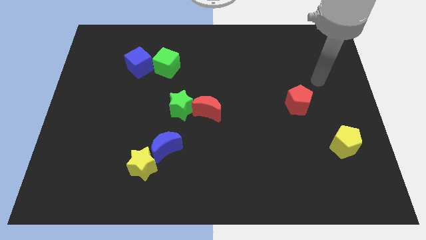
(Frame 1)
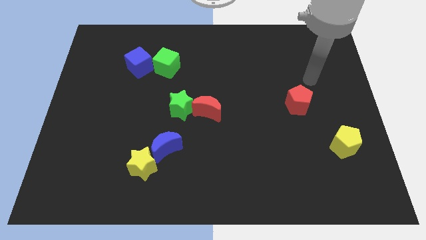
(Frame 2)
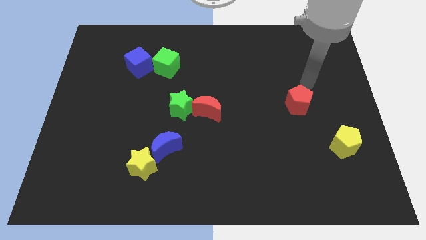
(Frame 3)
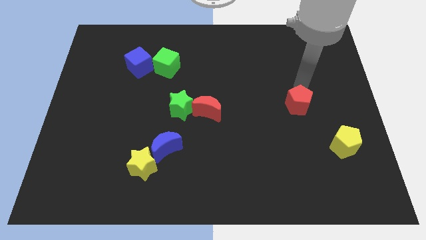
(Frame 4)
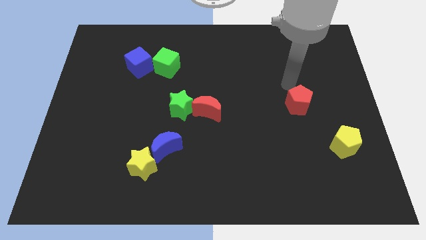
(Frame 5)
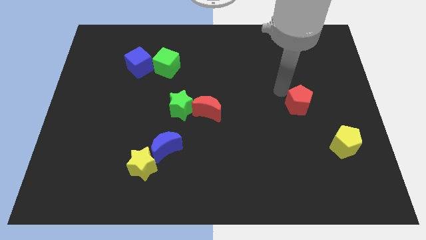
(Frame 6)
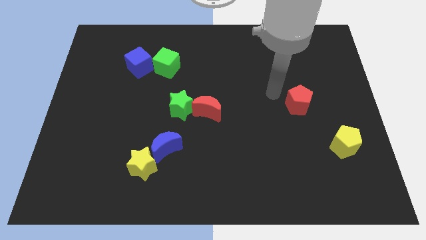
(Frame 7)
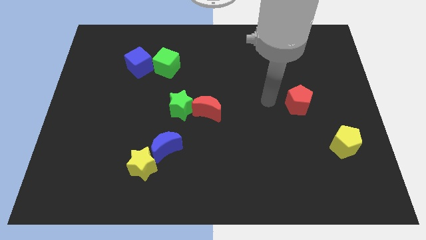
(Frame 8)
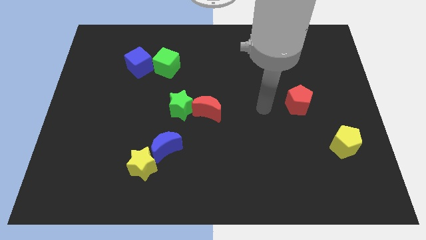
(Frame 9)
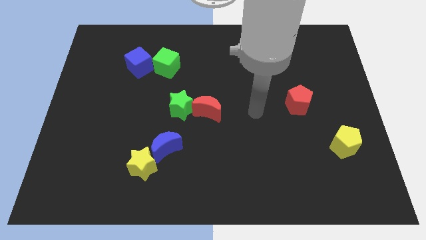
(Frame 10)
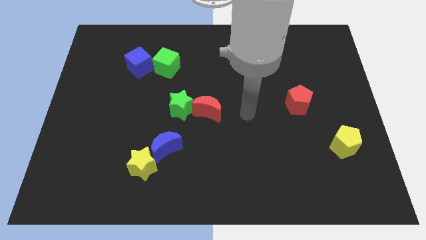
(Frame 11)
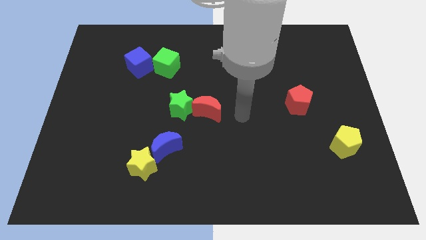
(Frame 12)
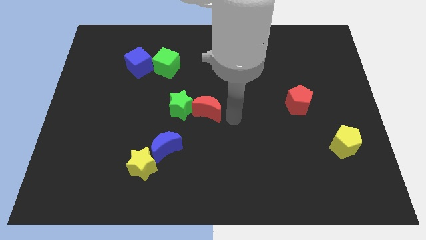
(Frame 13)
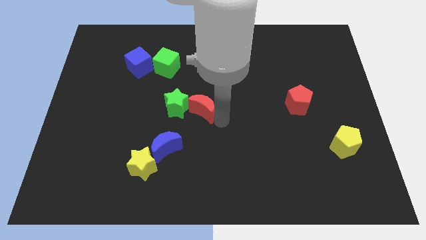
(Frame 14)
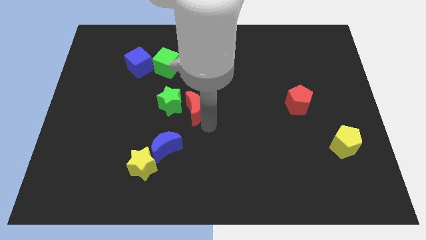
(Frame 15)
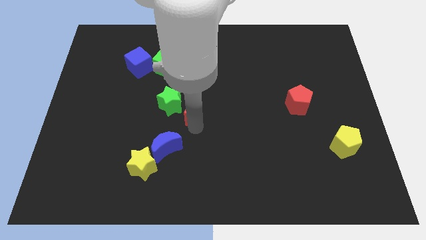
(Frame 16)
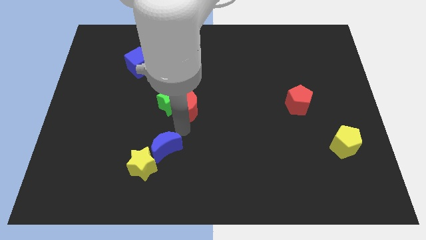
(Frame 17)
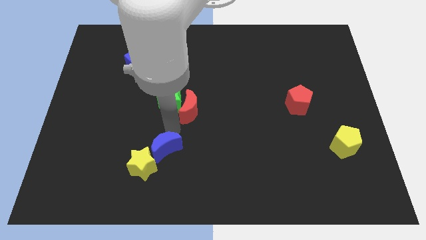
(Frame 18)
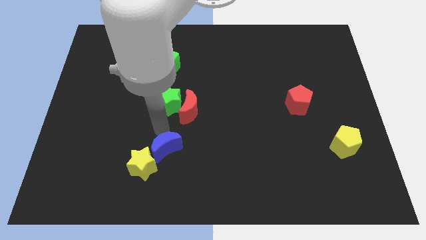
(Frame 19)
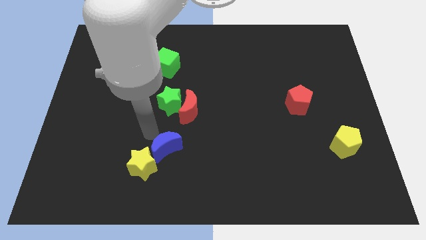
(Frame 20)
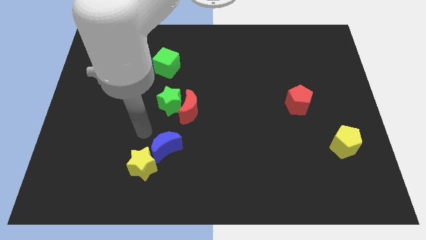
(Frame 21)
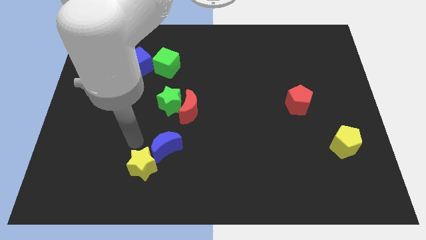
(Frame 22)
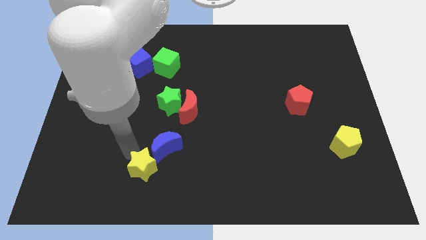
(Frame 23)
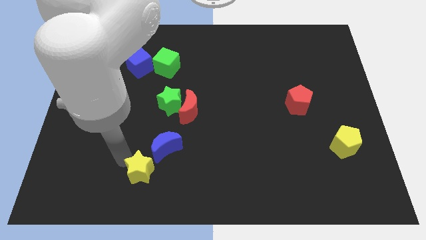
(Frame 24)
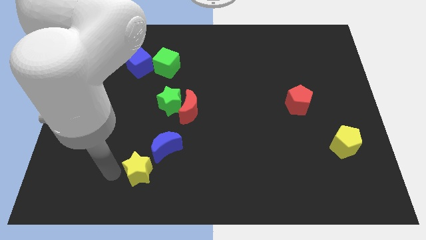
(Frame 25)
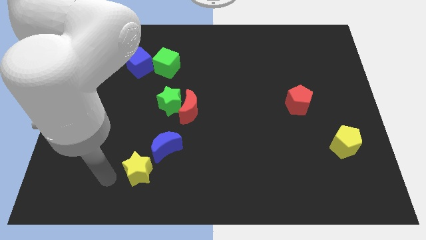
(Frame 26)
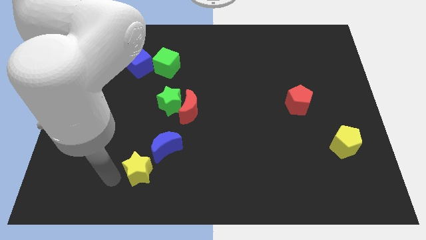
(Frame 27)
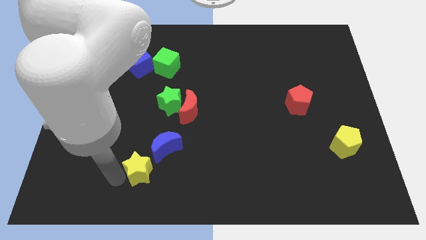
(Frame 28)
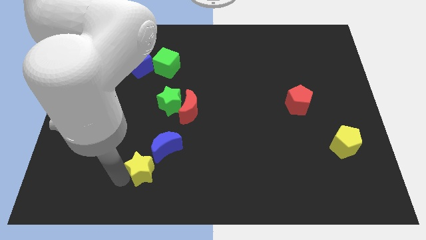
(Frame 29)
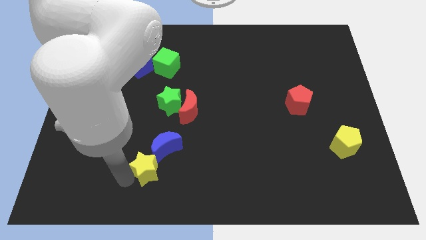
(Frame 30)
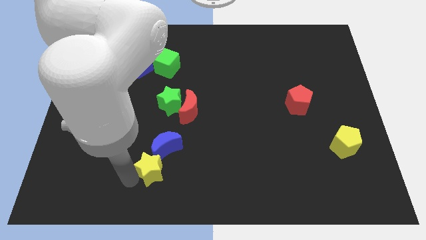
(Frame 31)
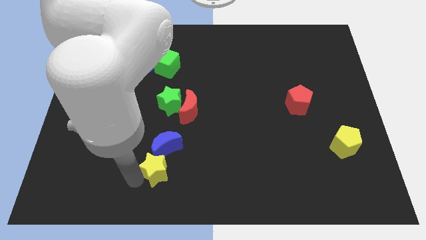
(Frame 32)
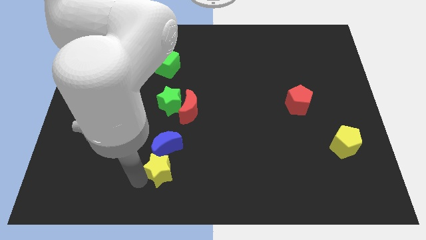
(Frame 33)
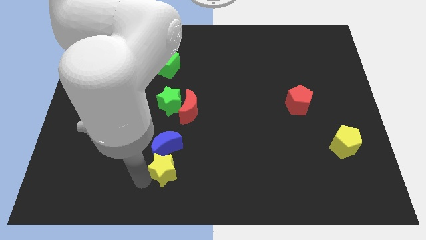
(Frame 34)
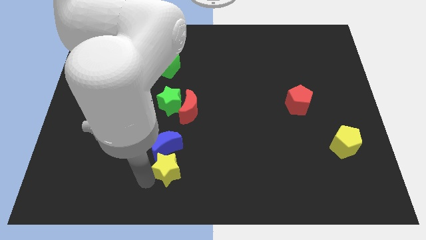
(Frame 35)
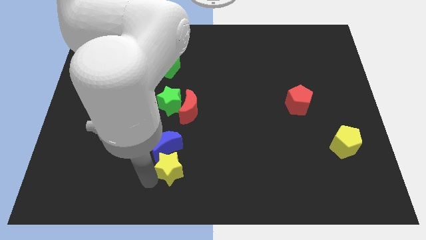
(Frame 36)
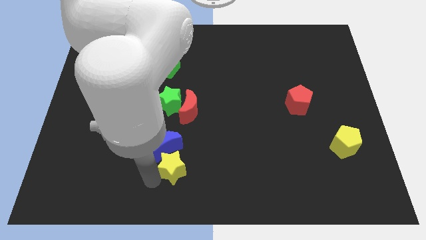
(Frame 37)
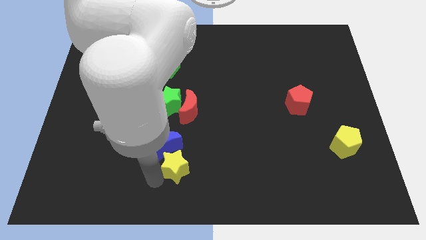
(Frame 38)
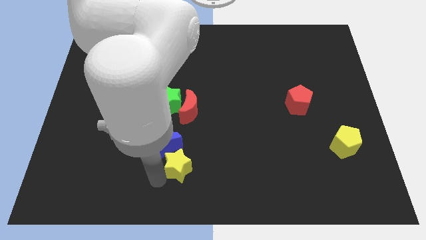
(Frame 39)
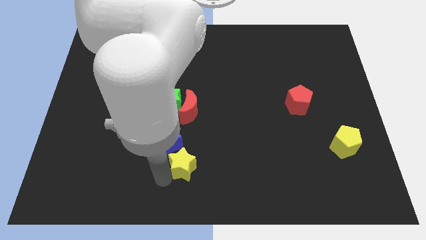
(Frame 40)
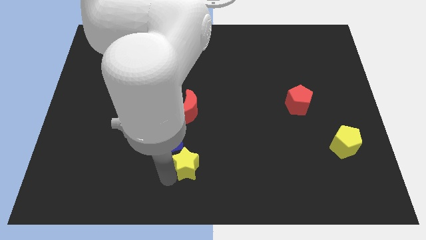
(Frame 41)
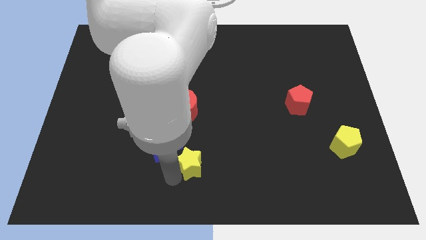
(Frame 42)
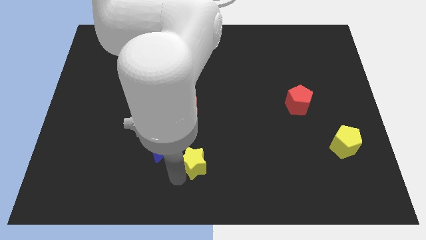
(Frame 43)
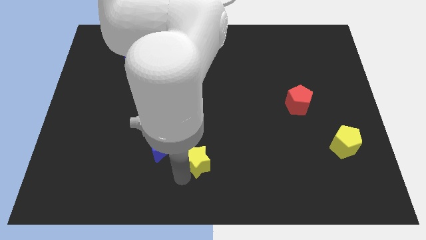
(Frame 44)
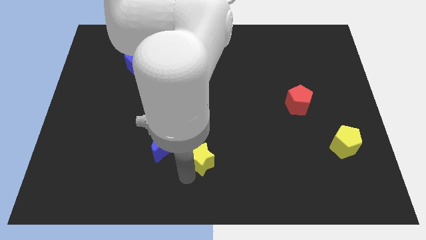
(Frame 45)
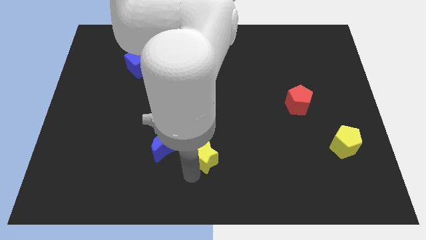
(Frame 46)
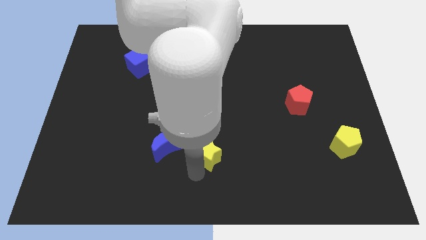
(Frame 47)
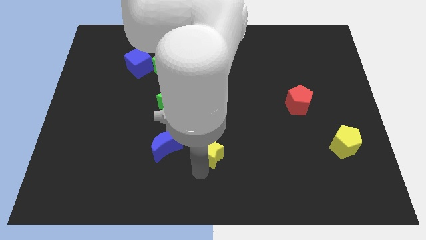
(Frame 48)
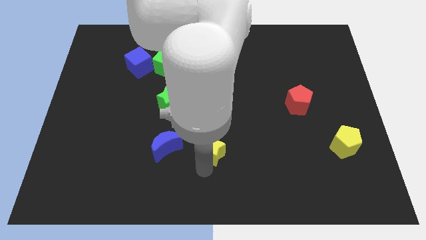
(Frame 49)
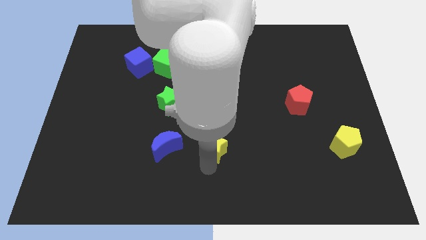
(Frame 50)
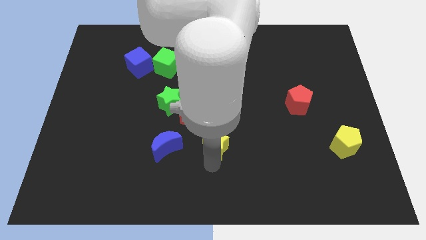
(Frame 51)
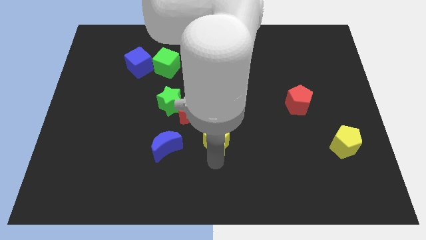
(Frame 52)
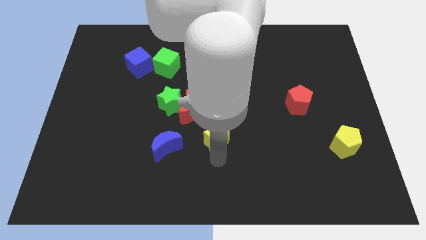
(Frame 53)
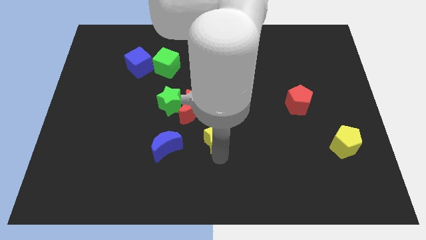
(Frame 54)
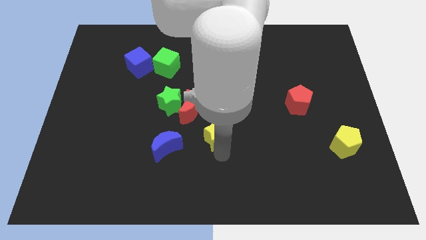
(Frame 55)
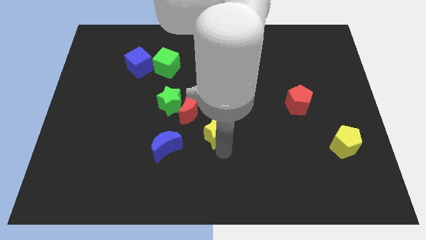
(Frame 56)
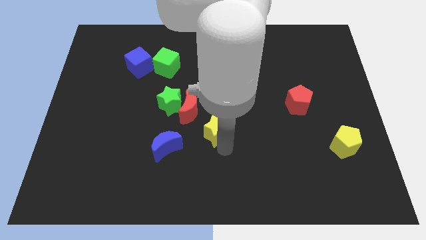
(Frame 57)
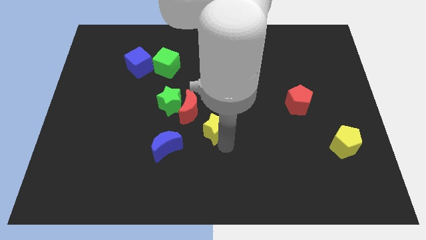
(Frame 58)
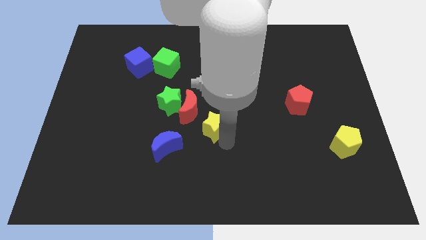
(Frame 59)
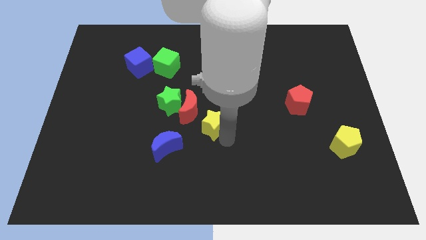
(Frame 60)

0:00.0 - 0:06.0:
move the yellow star to the top right side of the blue moon

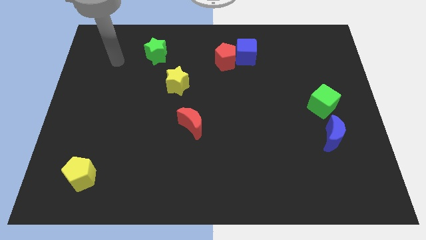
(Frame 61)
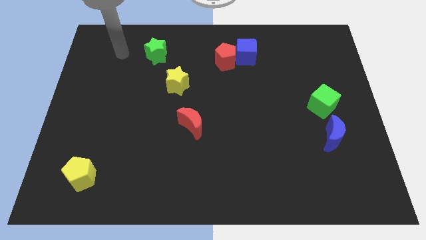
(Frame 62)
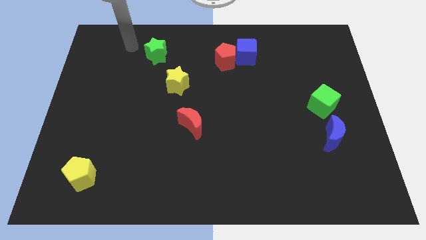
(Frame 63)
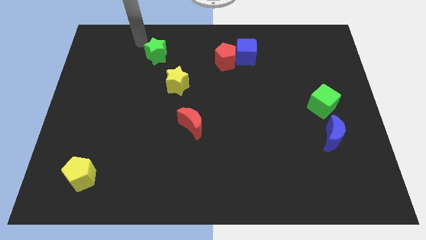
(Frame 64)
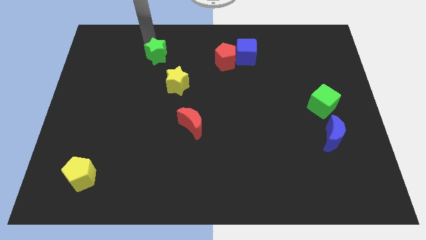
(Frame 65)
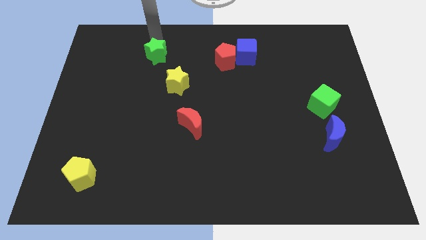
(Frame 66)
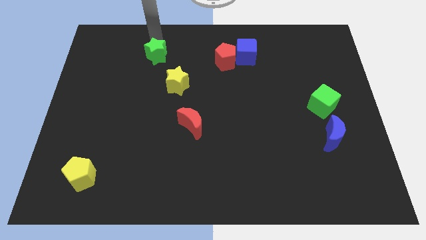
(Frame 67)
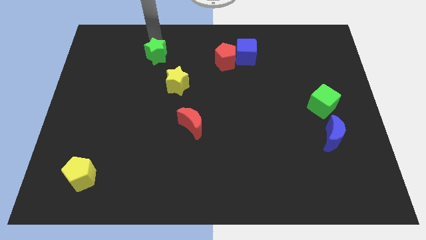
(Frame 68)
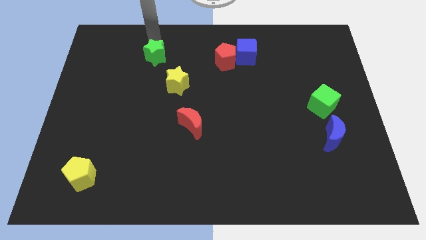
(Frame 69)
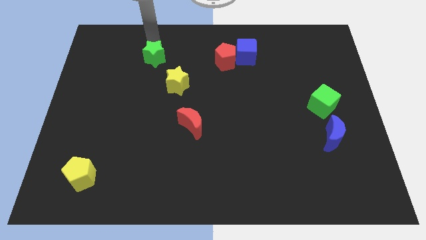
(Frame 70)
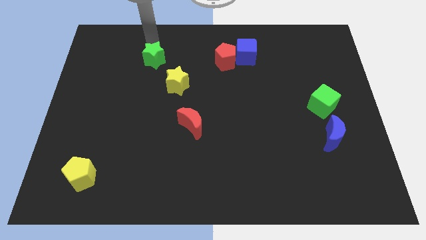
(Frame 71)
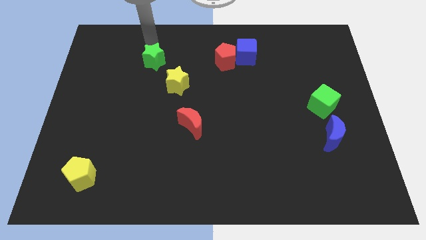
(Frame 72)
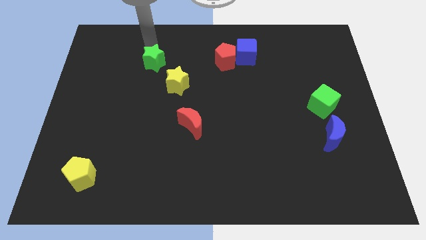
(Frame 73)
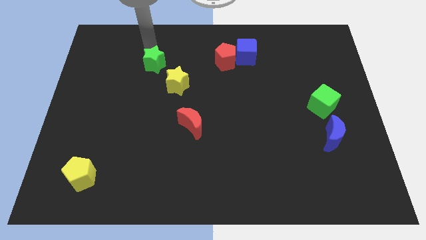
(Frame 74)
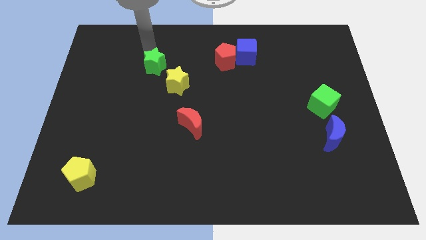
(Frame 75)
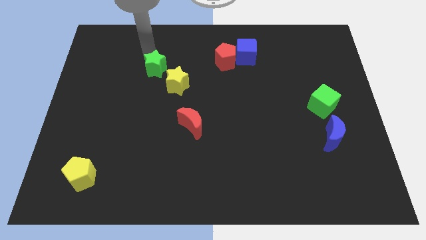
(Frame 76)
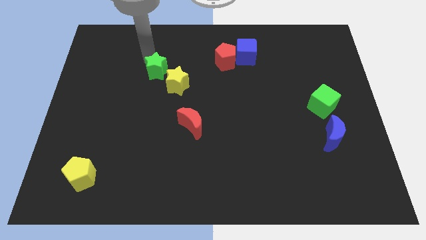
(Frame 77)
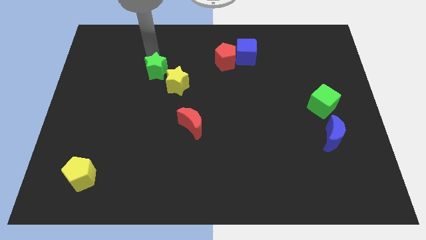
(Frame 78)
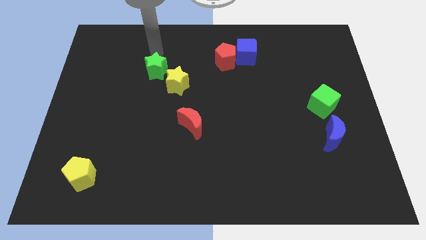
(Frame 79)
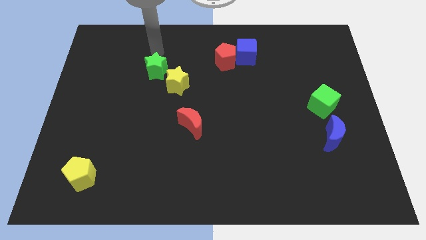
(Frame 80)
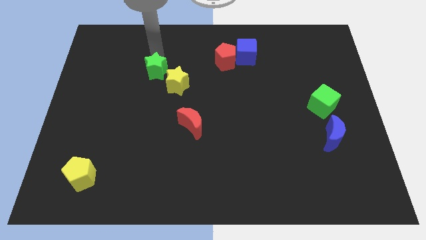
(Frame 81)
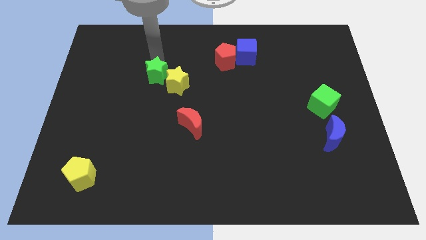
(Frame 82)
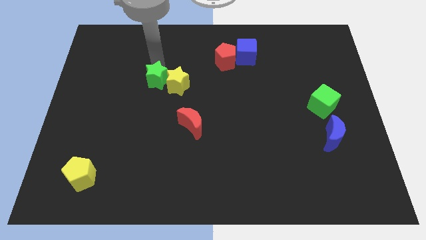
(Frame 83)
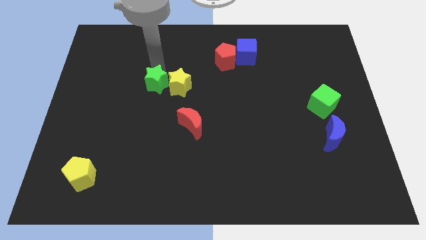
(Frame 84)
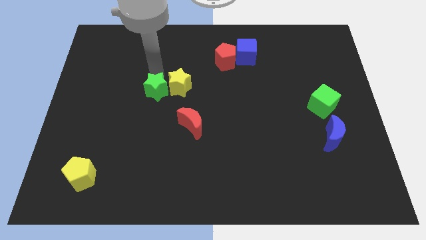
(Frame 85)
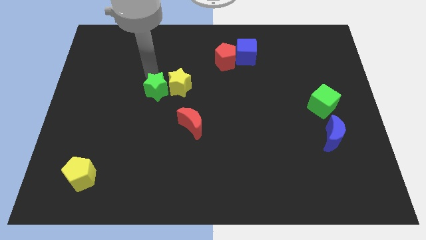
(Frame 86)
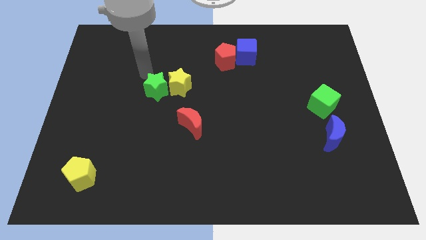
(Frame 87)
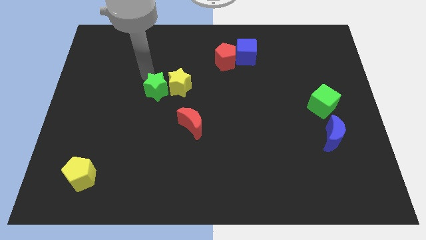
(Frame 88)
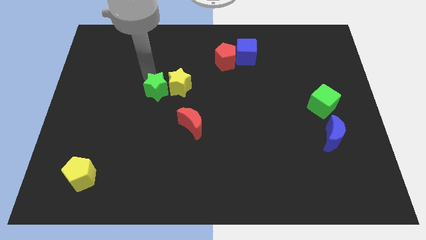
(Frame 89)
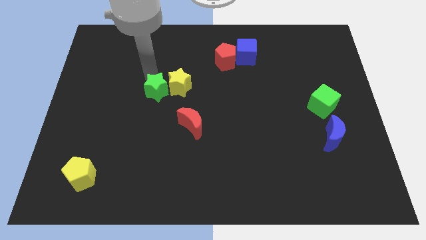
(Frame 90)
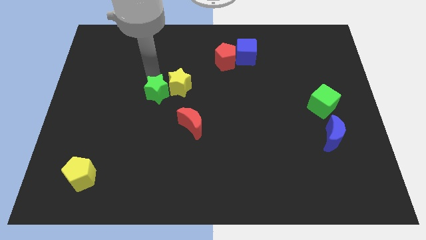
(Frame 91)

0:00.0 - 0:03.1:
put the green star to the top left of the red moon
